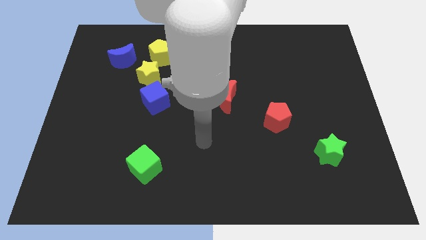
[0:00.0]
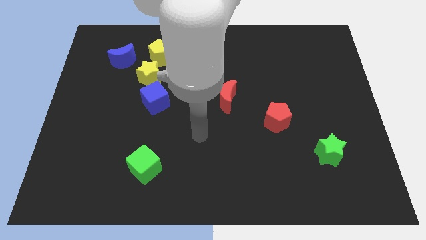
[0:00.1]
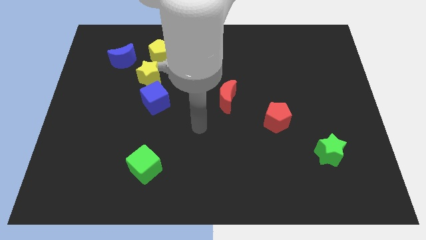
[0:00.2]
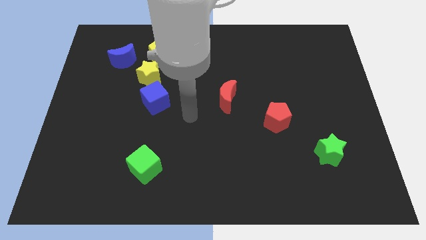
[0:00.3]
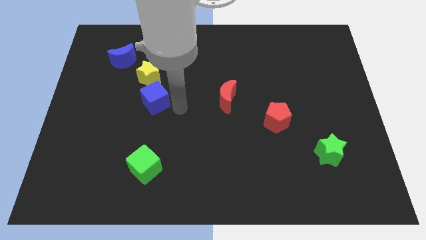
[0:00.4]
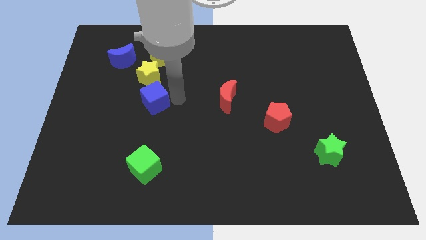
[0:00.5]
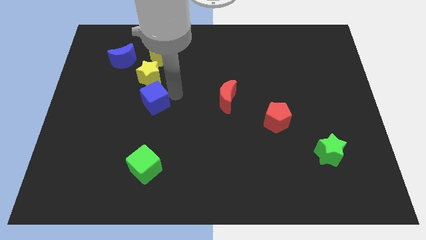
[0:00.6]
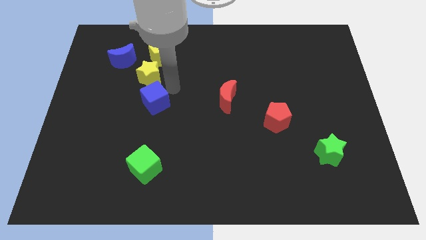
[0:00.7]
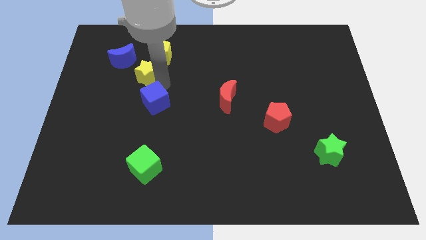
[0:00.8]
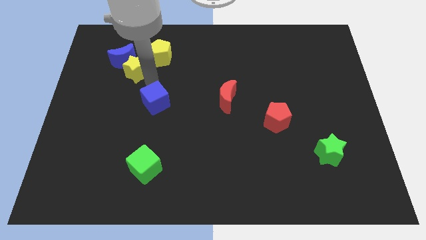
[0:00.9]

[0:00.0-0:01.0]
move the blue cube away from the yellow star

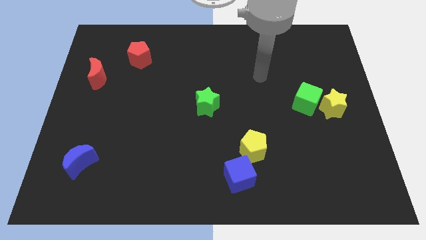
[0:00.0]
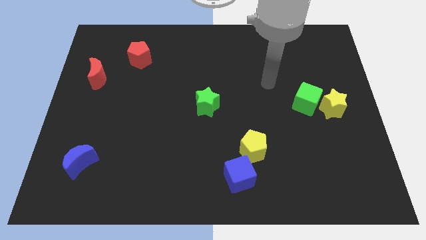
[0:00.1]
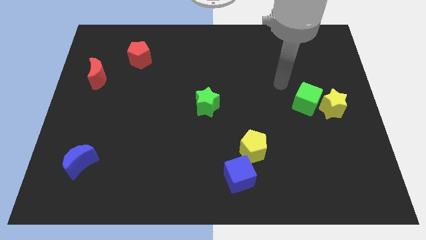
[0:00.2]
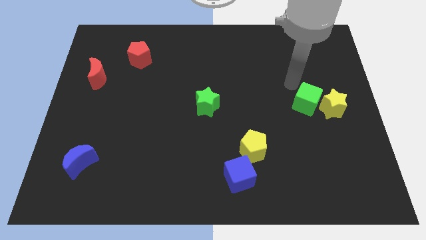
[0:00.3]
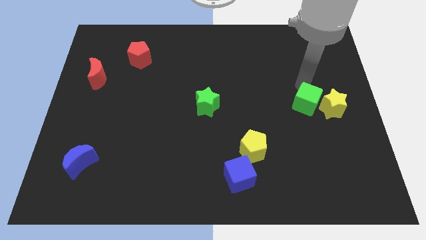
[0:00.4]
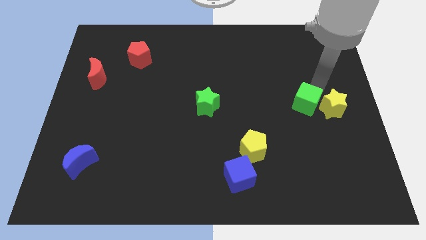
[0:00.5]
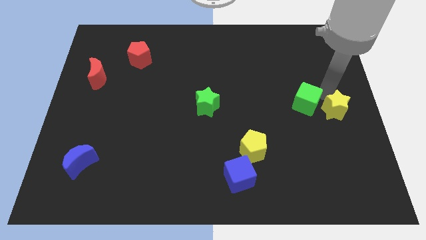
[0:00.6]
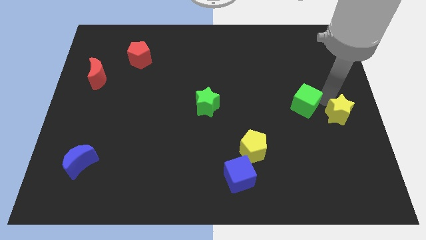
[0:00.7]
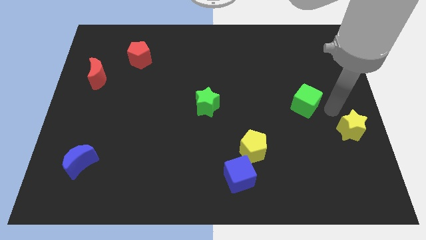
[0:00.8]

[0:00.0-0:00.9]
move the green cube away from the yellow star

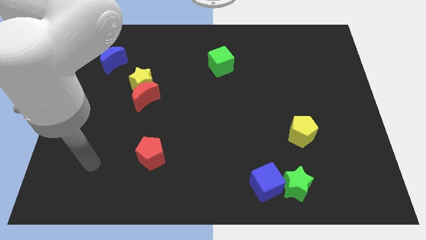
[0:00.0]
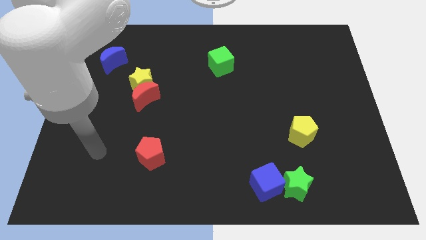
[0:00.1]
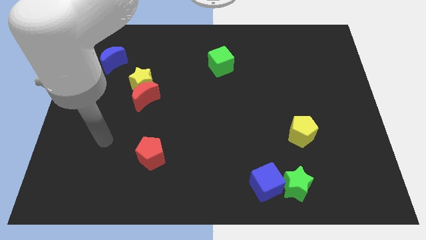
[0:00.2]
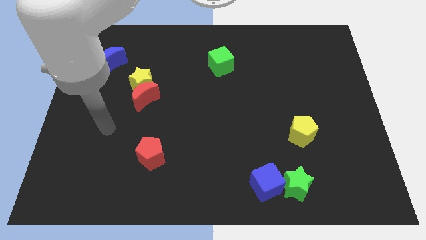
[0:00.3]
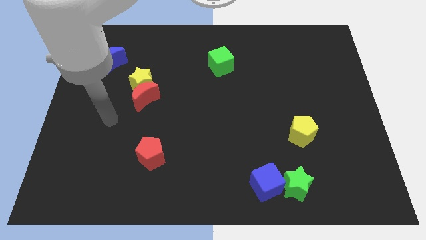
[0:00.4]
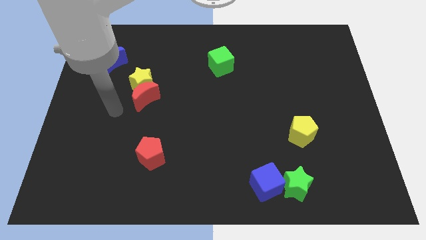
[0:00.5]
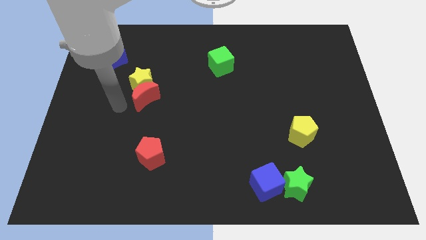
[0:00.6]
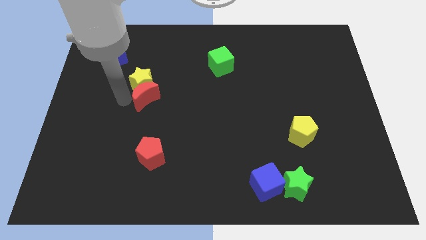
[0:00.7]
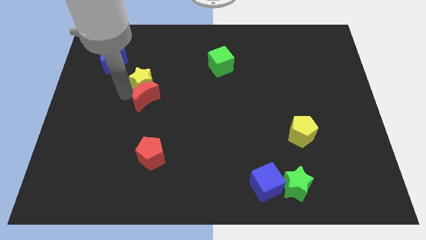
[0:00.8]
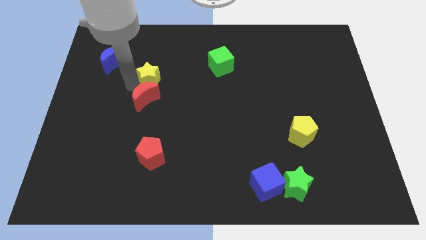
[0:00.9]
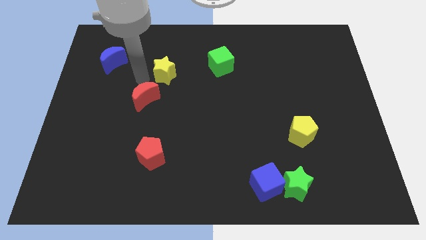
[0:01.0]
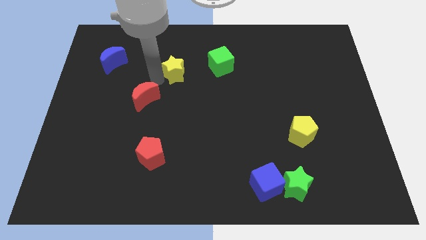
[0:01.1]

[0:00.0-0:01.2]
move the red moon away from the yellow star

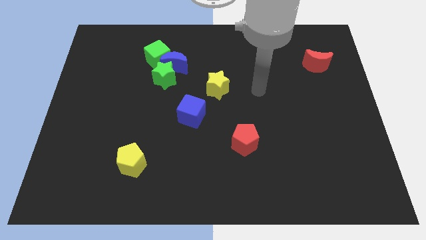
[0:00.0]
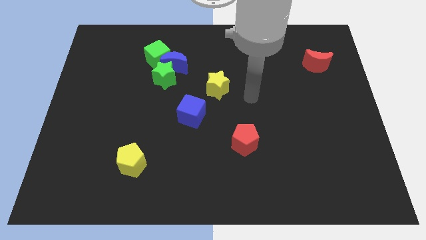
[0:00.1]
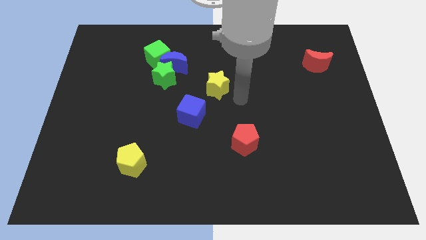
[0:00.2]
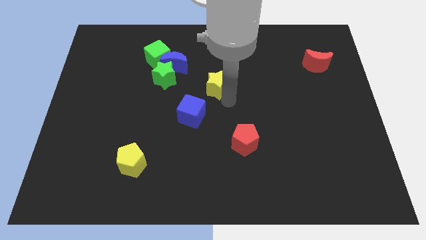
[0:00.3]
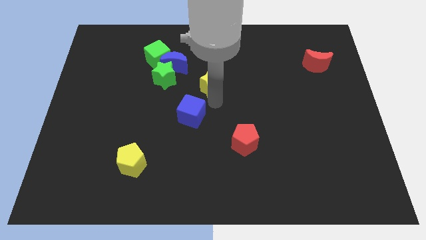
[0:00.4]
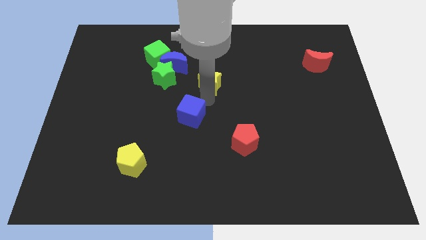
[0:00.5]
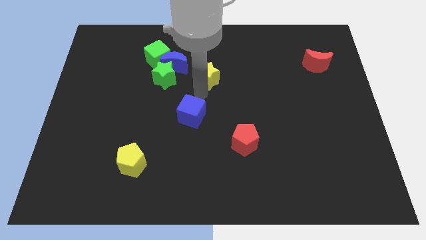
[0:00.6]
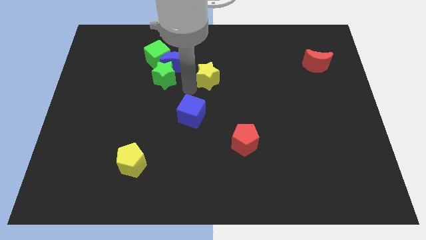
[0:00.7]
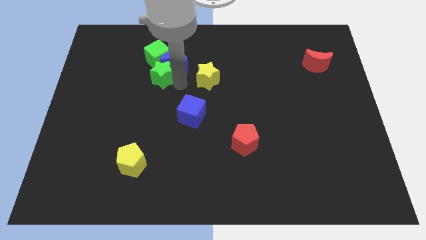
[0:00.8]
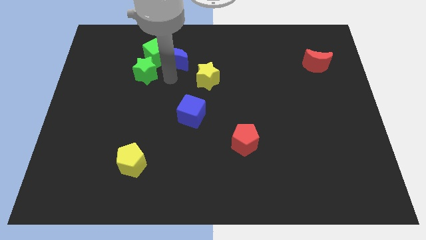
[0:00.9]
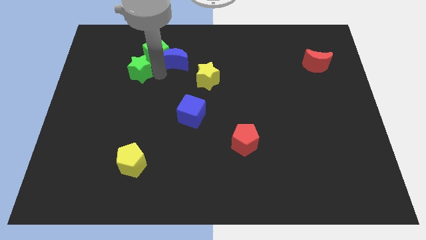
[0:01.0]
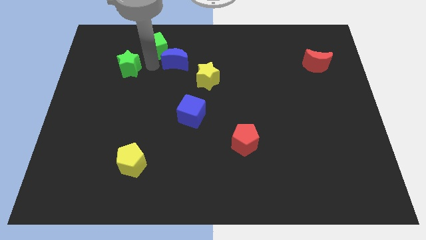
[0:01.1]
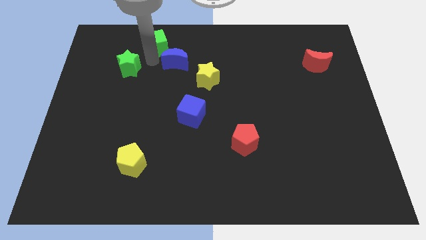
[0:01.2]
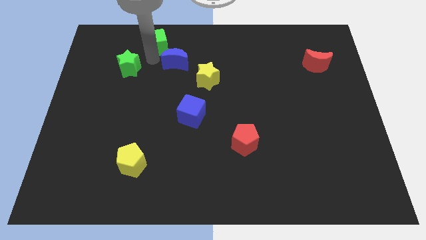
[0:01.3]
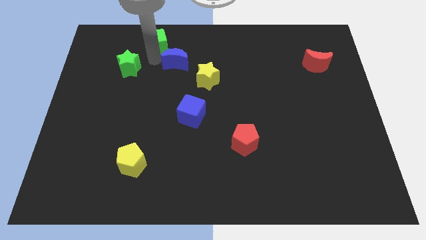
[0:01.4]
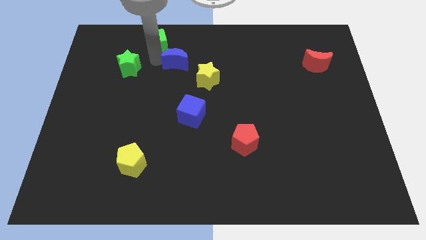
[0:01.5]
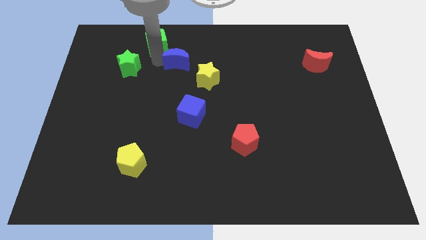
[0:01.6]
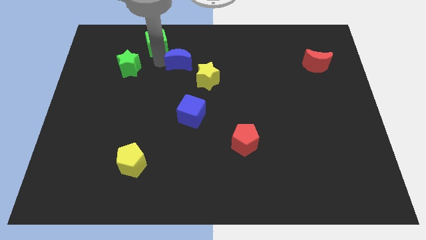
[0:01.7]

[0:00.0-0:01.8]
pull the blue moon apart from the green star and green cube

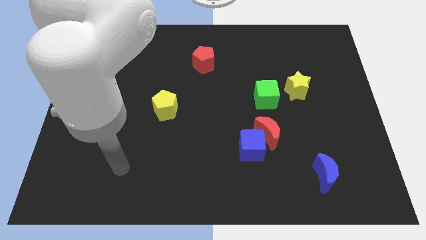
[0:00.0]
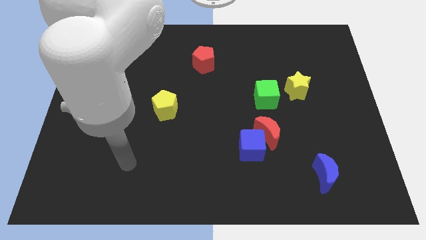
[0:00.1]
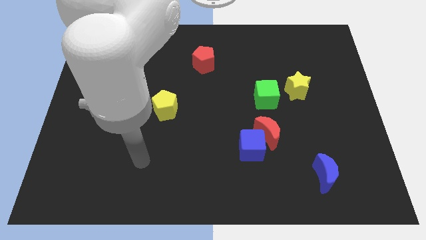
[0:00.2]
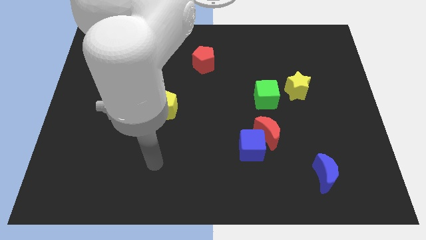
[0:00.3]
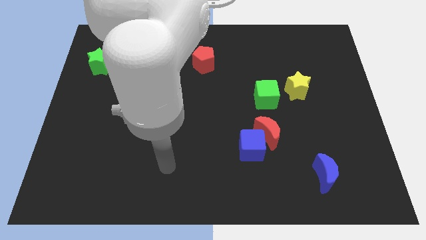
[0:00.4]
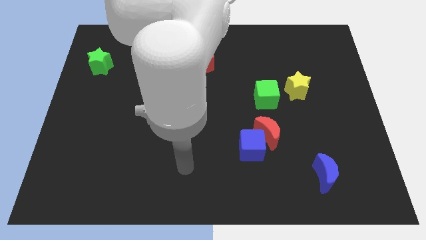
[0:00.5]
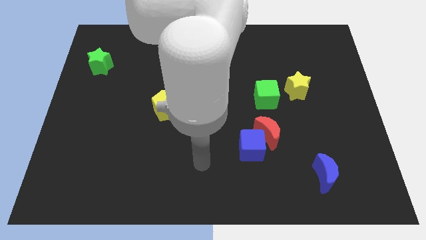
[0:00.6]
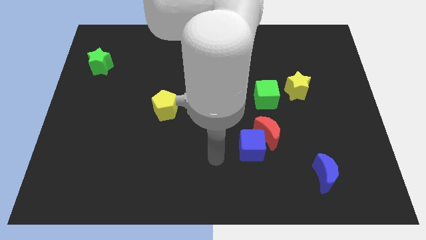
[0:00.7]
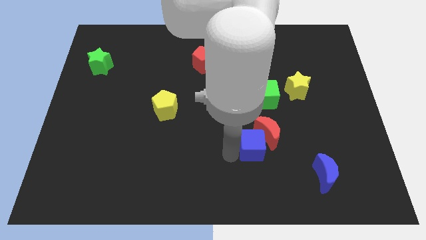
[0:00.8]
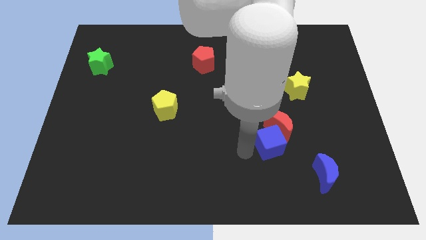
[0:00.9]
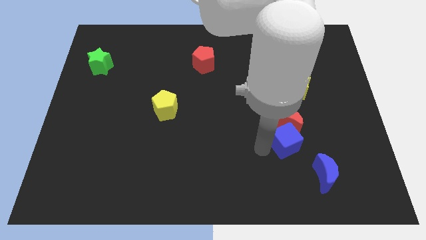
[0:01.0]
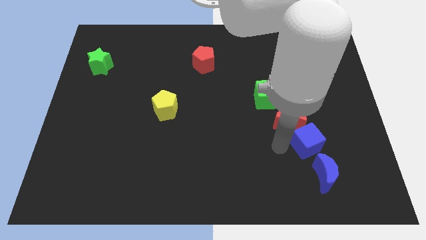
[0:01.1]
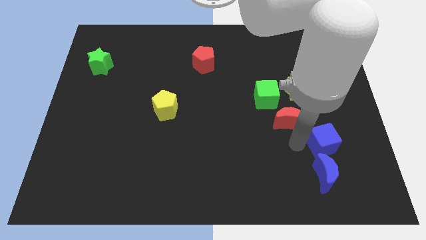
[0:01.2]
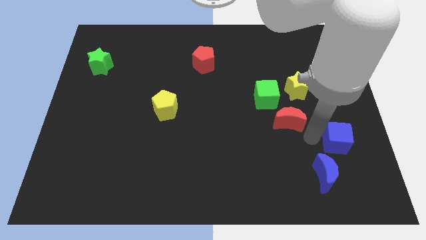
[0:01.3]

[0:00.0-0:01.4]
pull the red moon apart from the blue cube

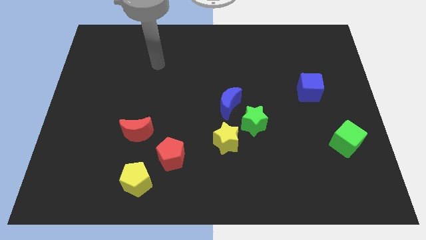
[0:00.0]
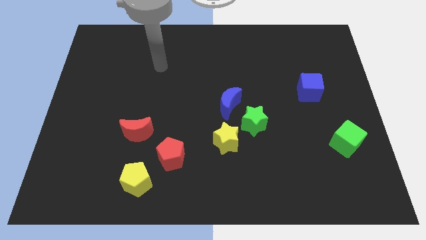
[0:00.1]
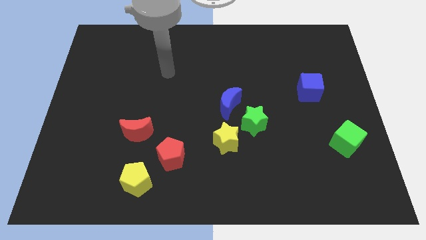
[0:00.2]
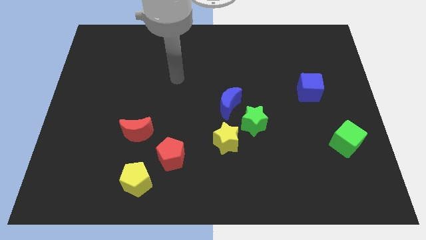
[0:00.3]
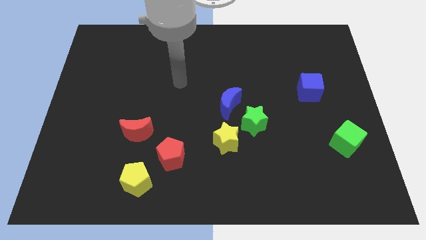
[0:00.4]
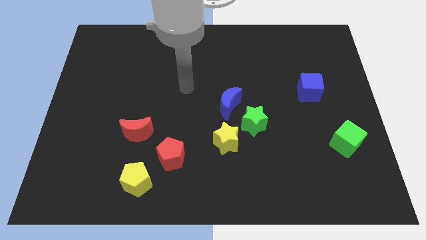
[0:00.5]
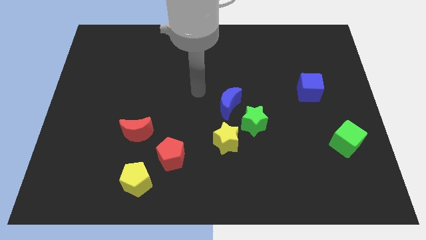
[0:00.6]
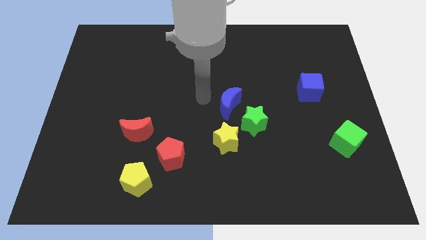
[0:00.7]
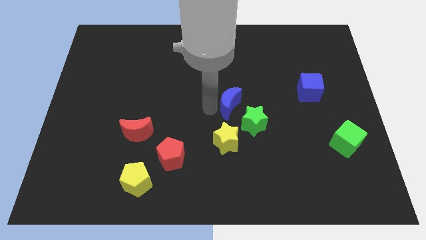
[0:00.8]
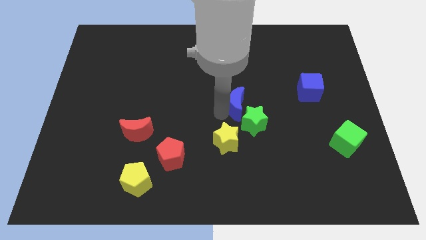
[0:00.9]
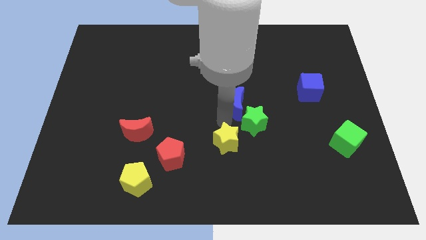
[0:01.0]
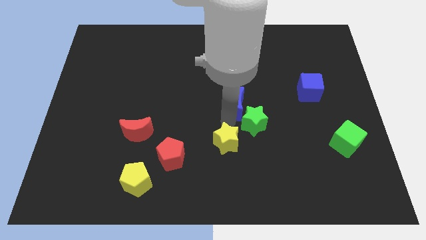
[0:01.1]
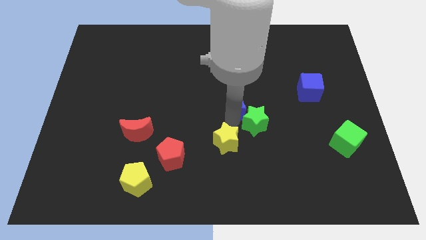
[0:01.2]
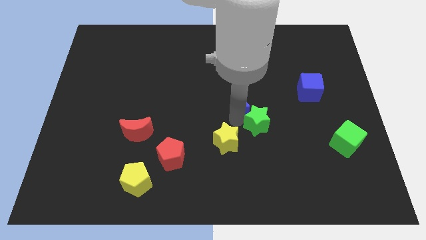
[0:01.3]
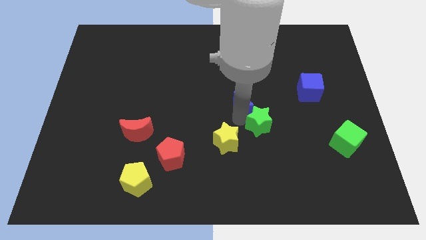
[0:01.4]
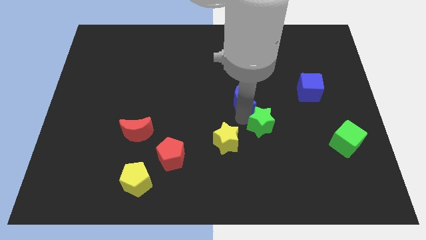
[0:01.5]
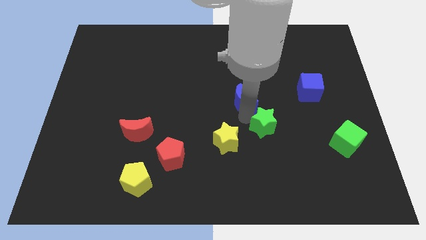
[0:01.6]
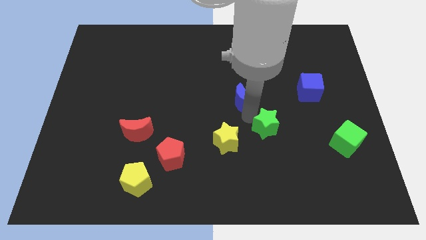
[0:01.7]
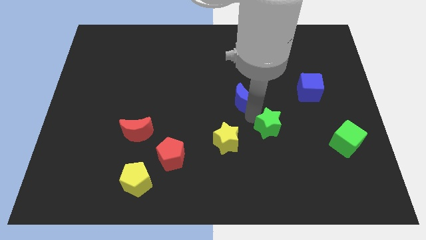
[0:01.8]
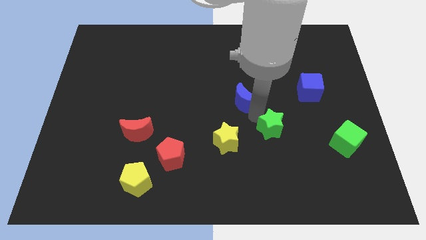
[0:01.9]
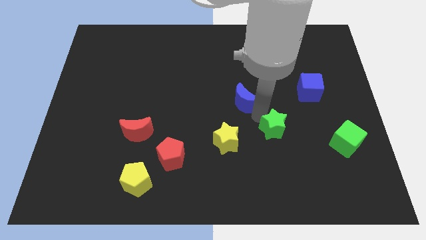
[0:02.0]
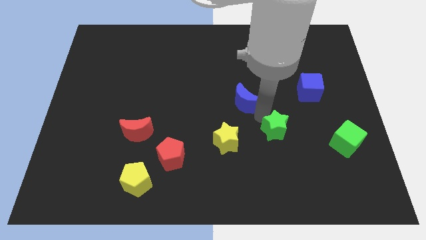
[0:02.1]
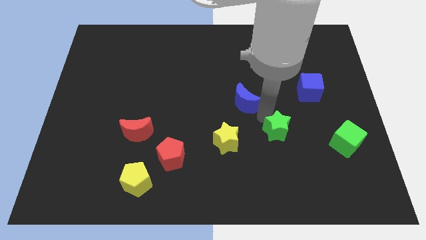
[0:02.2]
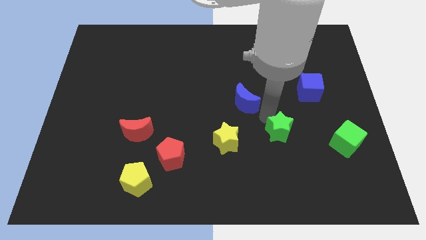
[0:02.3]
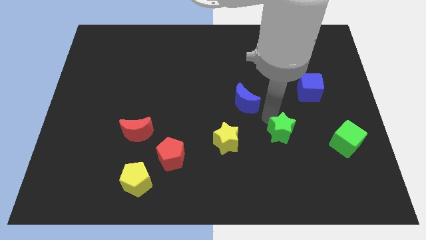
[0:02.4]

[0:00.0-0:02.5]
move the green star away from the blue moon and yellow star

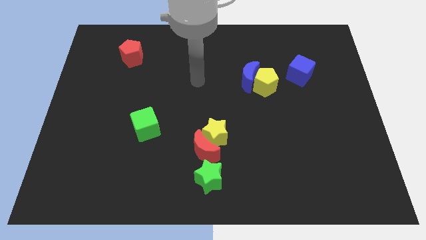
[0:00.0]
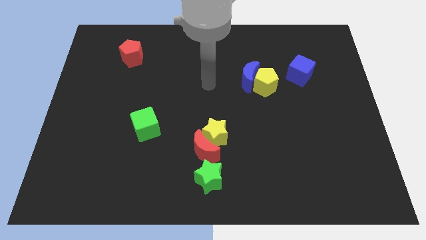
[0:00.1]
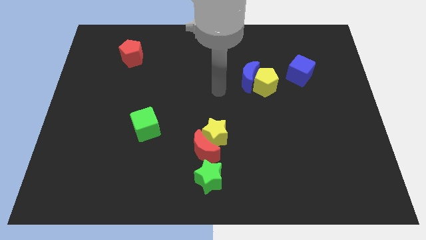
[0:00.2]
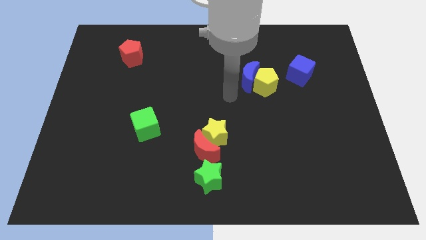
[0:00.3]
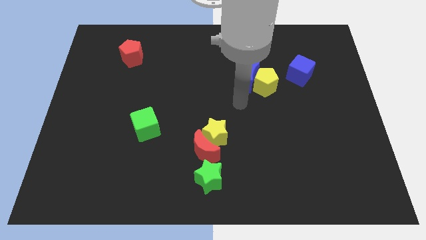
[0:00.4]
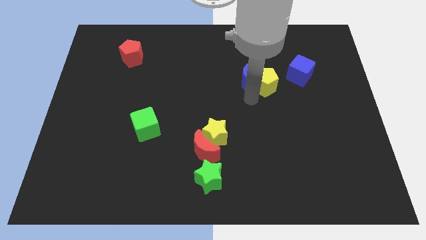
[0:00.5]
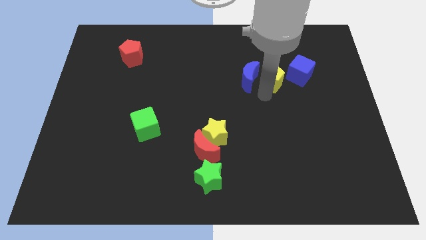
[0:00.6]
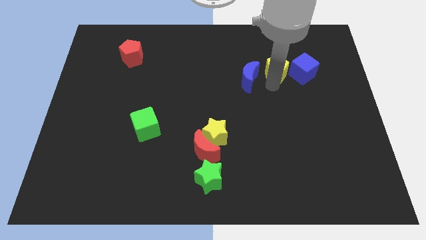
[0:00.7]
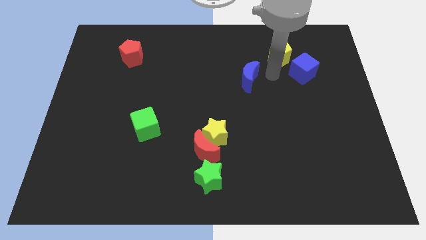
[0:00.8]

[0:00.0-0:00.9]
pull the blue moon apart from the yellow pentagon
